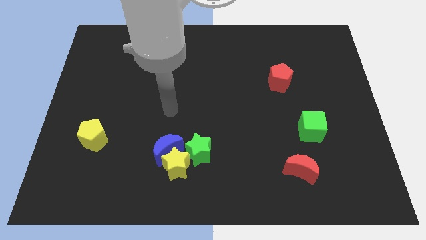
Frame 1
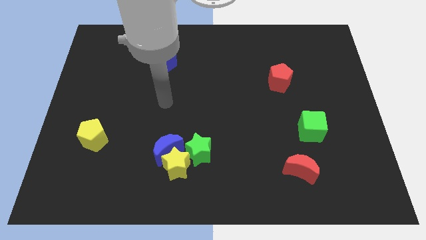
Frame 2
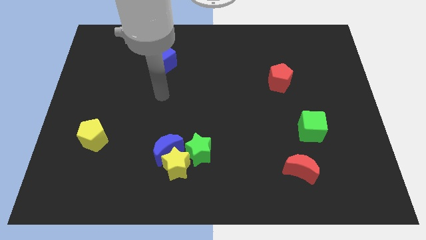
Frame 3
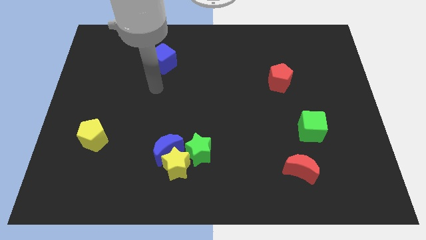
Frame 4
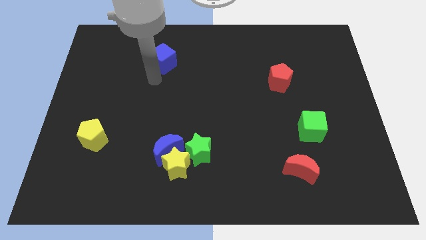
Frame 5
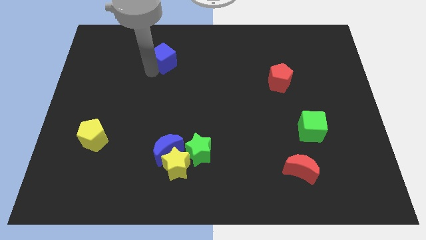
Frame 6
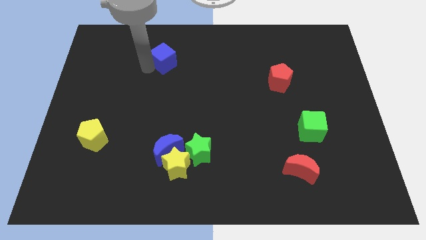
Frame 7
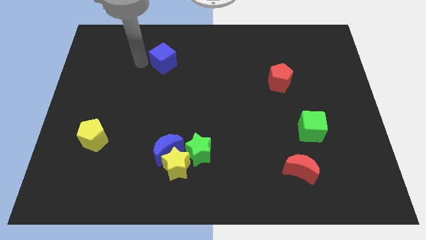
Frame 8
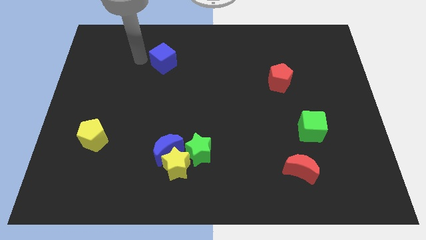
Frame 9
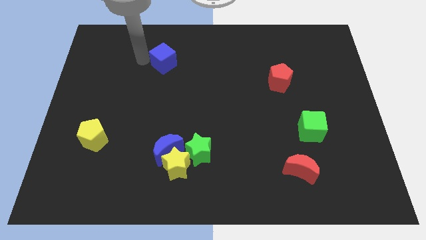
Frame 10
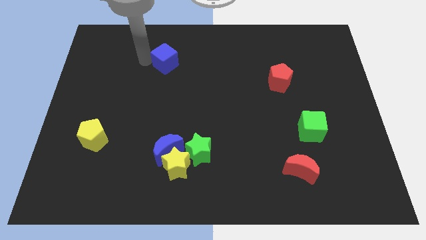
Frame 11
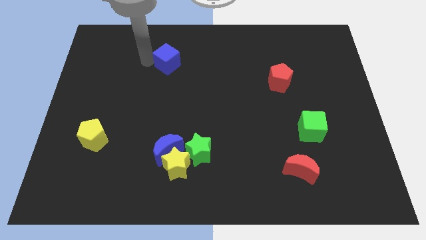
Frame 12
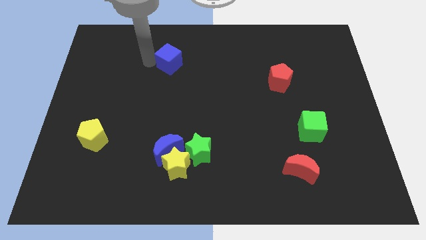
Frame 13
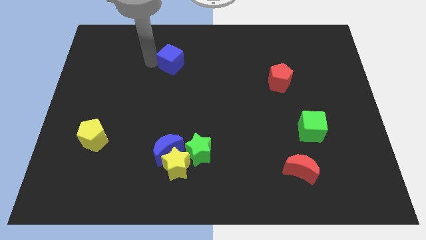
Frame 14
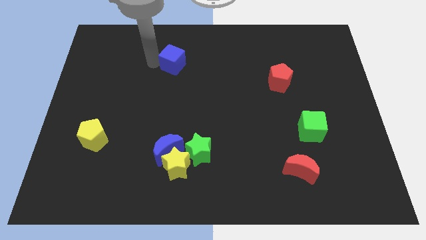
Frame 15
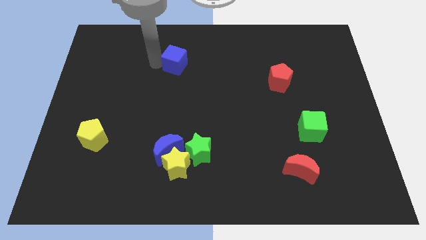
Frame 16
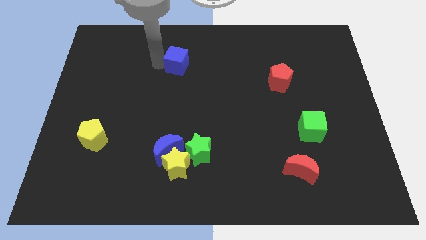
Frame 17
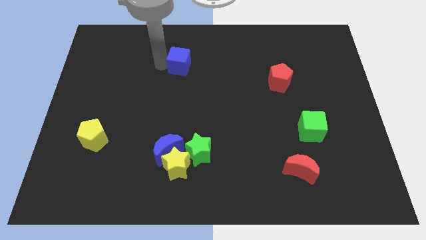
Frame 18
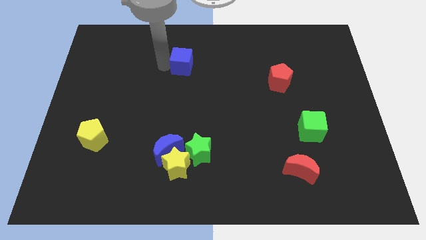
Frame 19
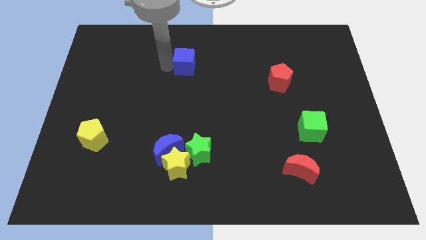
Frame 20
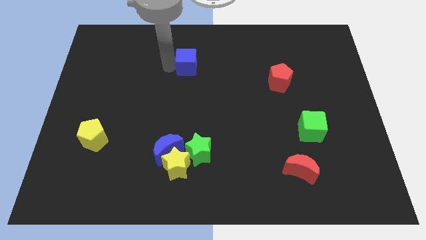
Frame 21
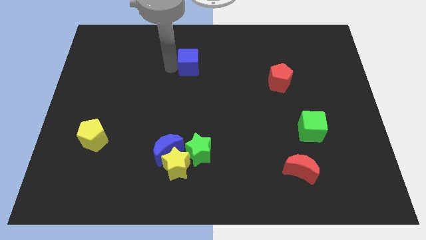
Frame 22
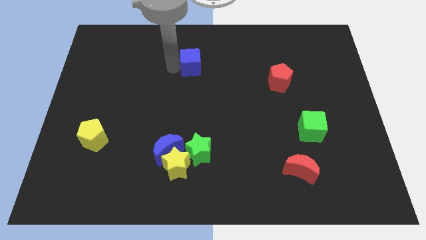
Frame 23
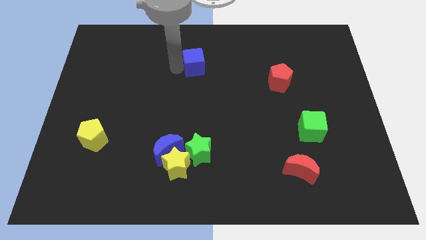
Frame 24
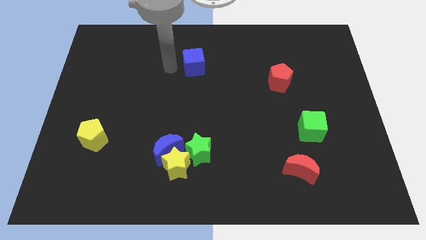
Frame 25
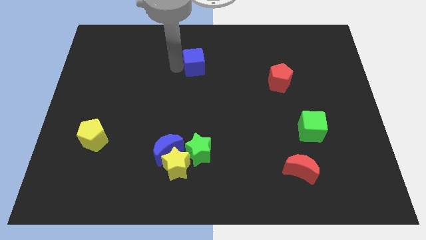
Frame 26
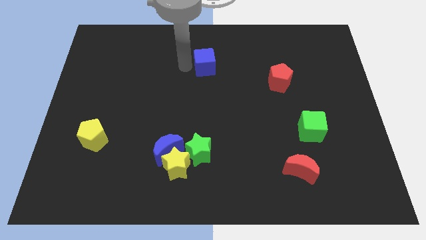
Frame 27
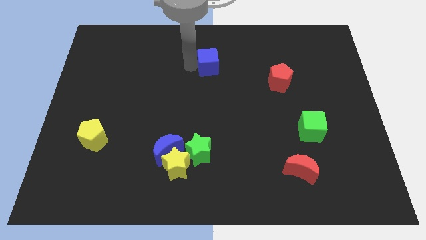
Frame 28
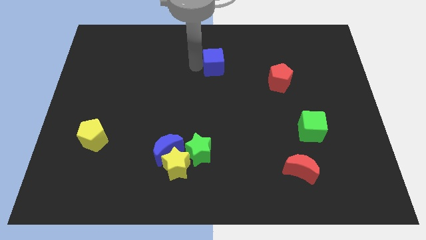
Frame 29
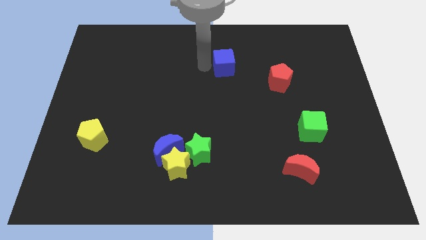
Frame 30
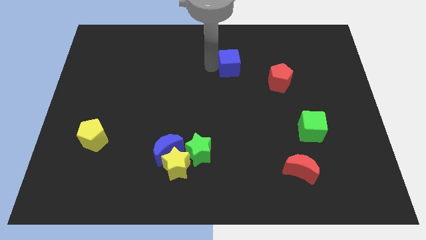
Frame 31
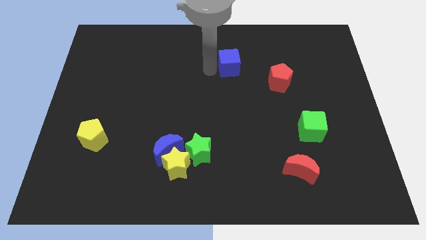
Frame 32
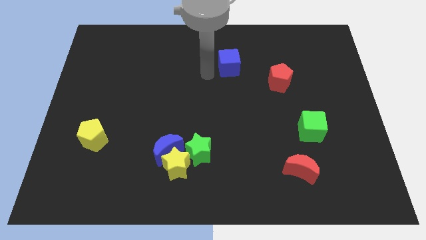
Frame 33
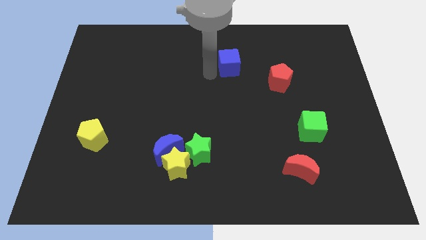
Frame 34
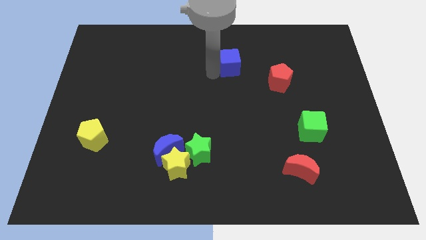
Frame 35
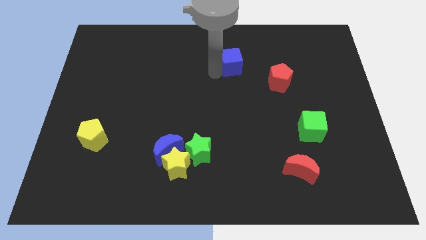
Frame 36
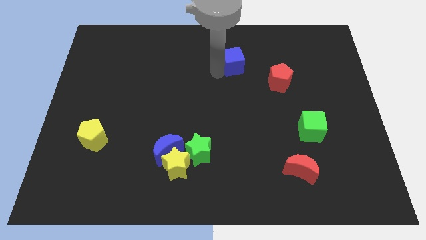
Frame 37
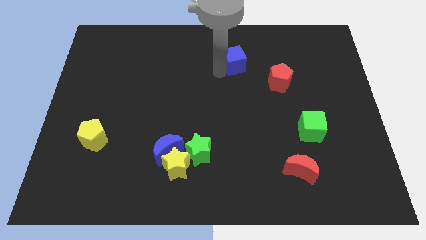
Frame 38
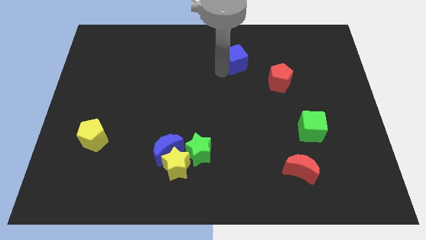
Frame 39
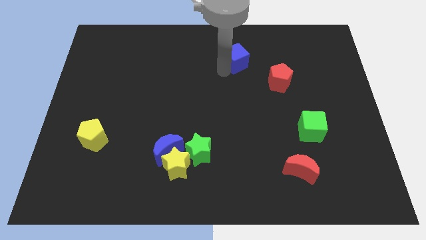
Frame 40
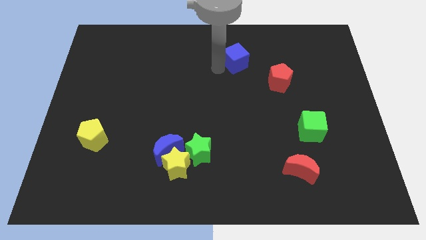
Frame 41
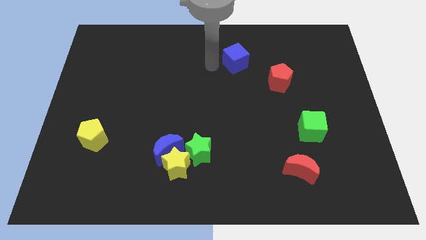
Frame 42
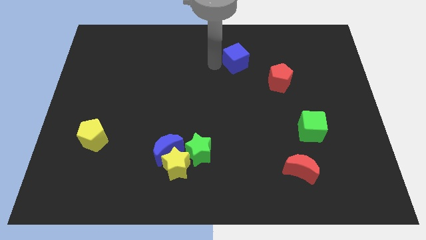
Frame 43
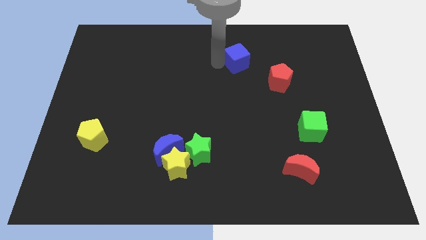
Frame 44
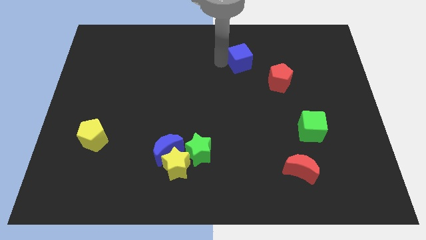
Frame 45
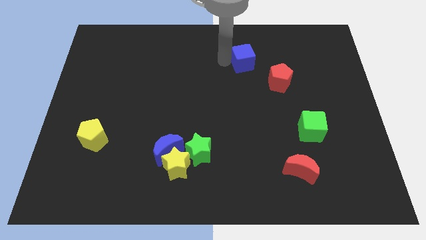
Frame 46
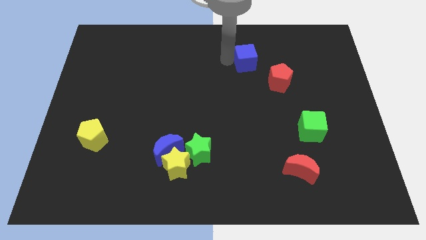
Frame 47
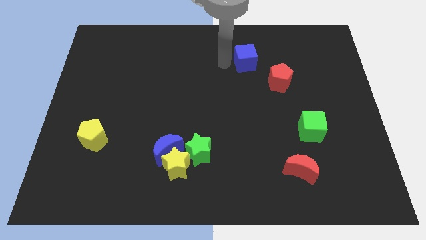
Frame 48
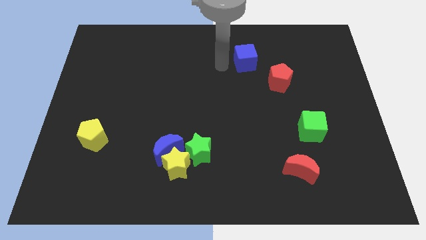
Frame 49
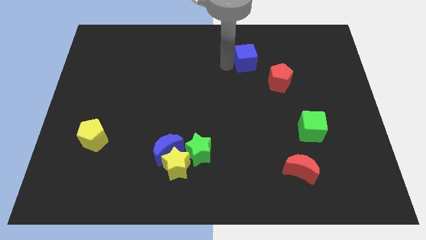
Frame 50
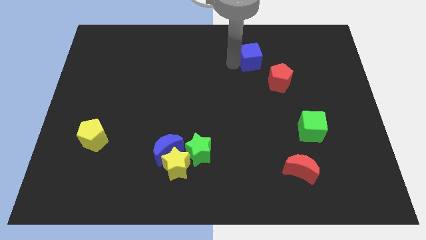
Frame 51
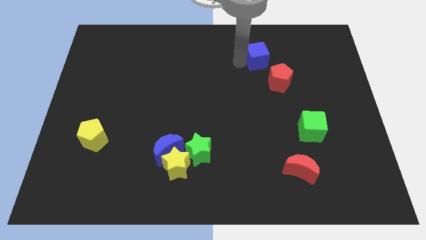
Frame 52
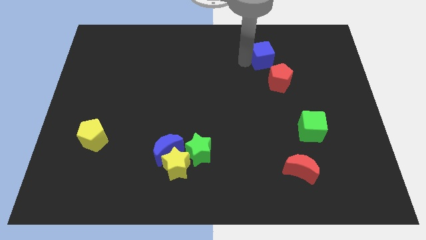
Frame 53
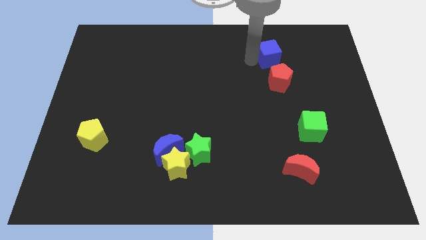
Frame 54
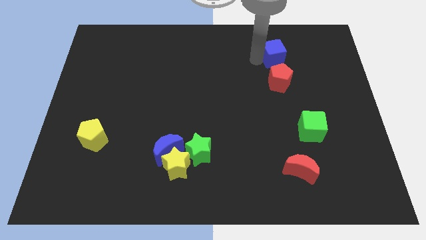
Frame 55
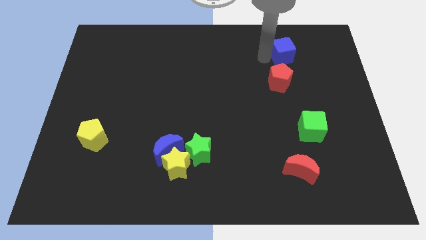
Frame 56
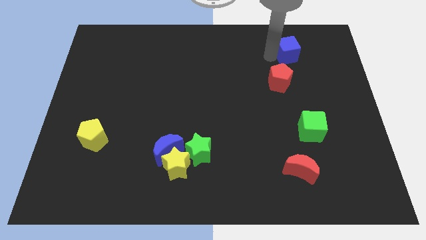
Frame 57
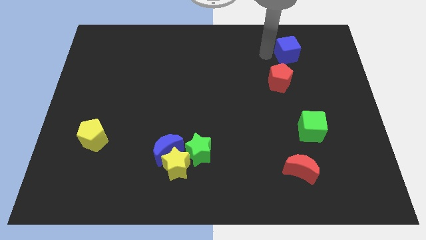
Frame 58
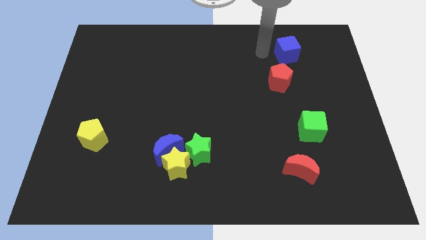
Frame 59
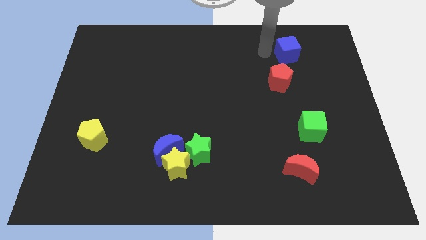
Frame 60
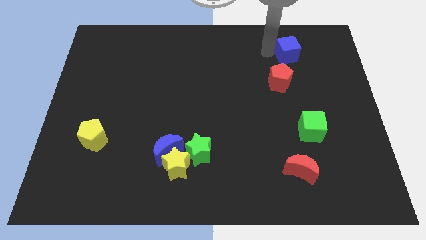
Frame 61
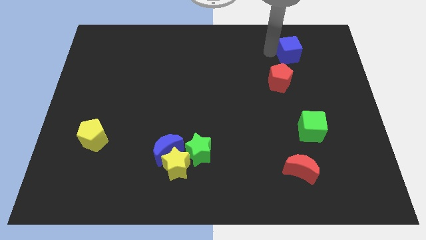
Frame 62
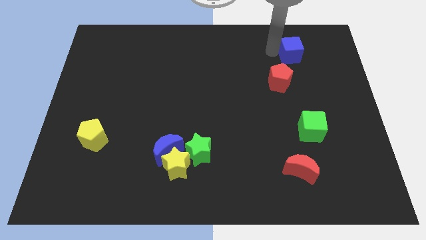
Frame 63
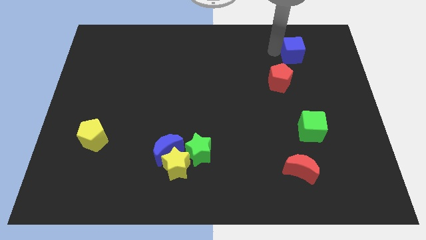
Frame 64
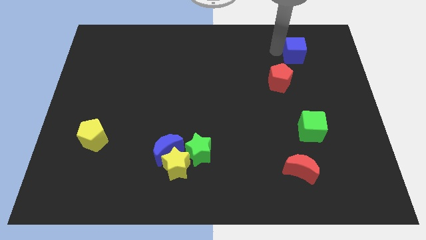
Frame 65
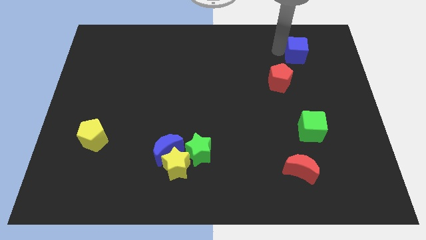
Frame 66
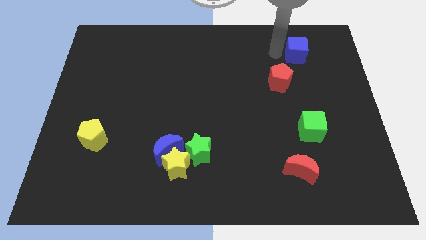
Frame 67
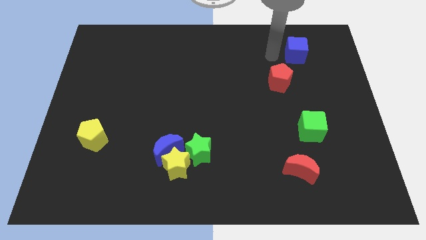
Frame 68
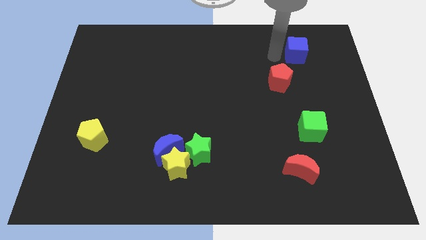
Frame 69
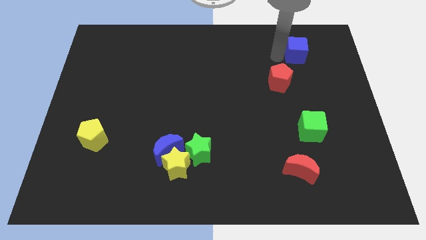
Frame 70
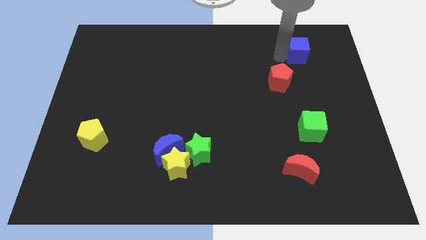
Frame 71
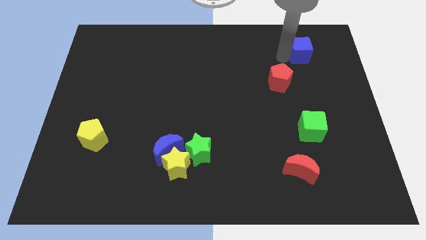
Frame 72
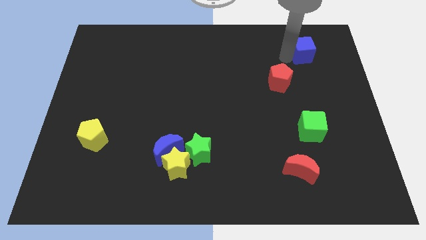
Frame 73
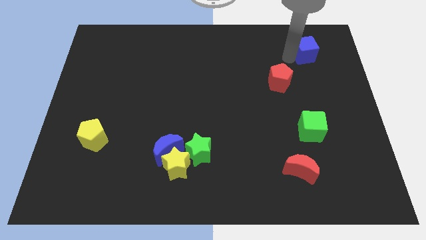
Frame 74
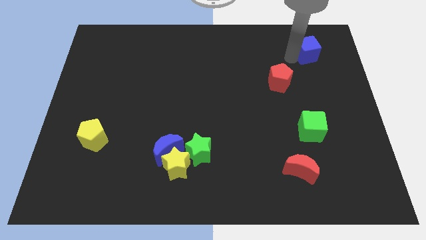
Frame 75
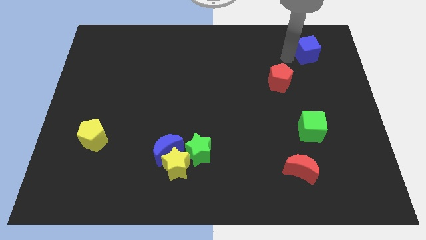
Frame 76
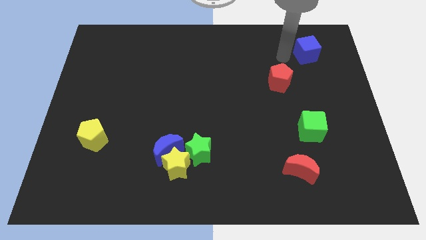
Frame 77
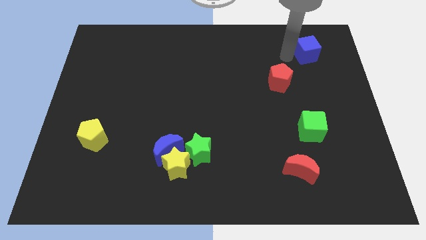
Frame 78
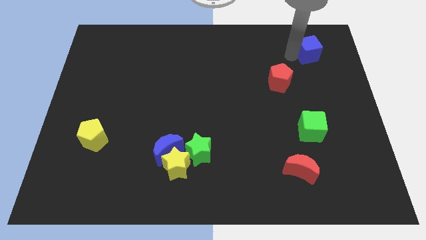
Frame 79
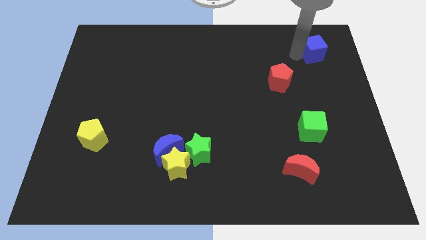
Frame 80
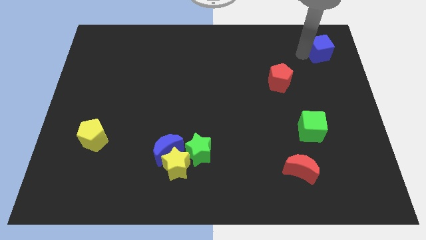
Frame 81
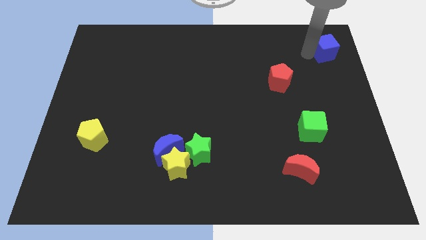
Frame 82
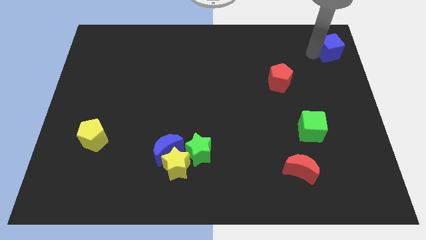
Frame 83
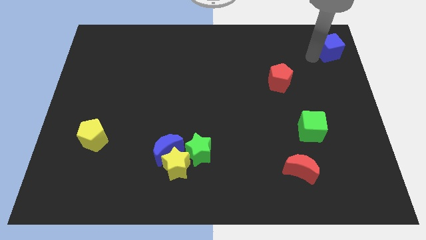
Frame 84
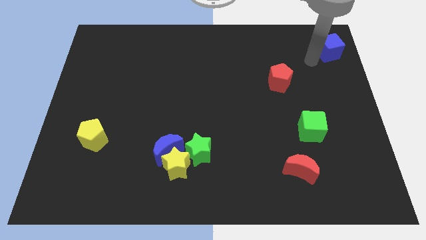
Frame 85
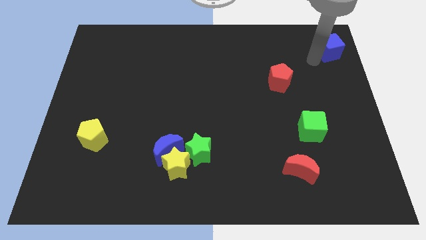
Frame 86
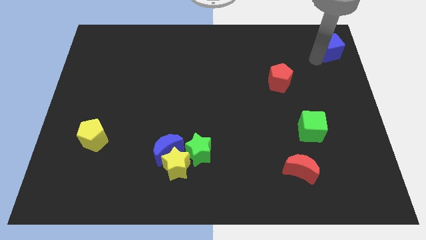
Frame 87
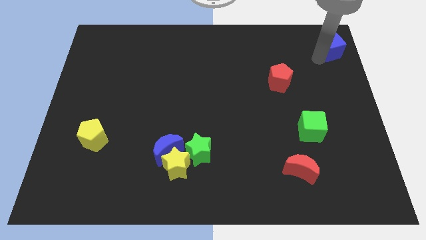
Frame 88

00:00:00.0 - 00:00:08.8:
push the blue cube to the top right of the board
